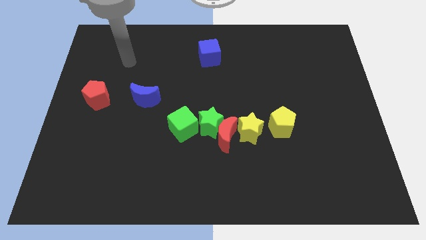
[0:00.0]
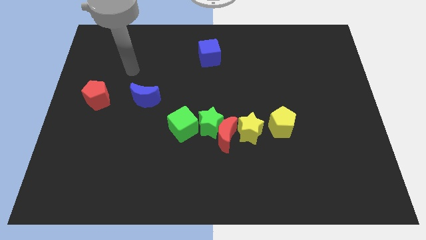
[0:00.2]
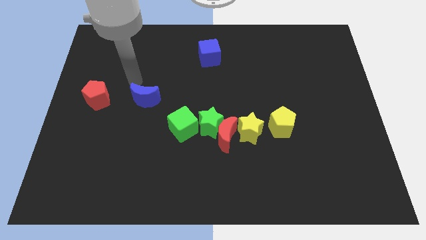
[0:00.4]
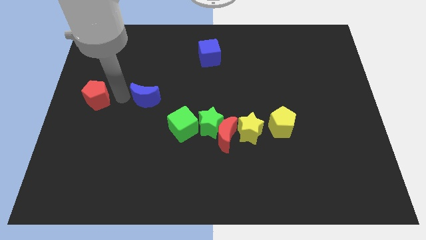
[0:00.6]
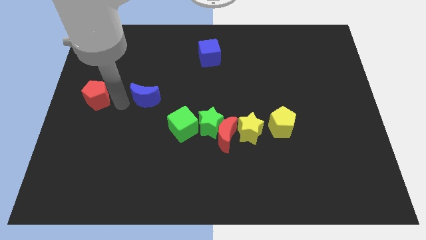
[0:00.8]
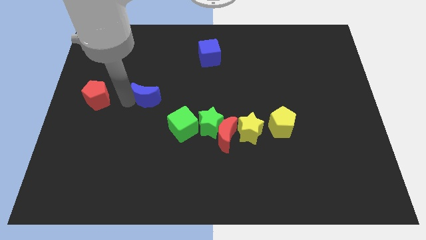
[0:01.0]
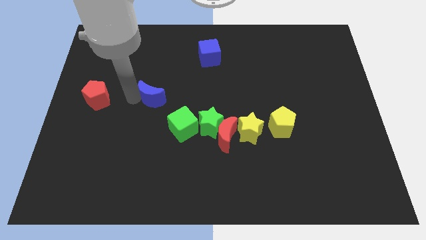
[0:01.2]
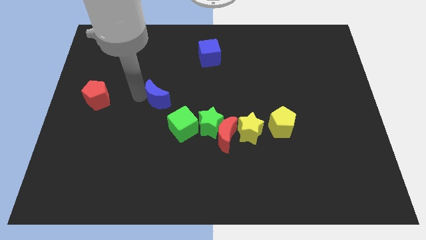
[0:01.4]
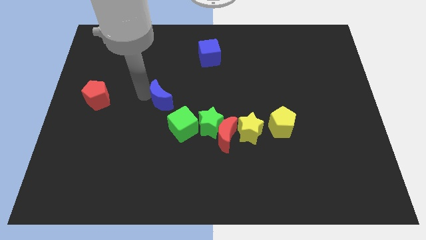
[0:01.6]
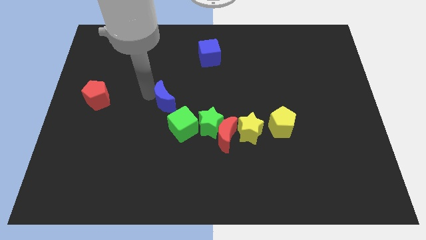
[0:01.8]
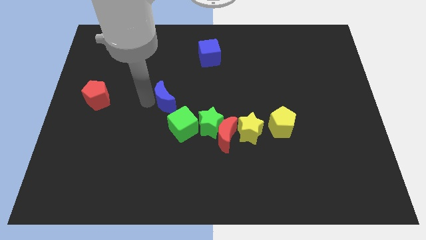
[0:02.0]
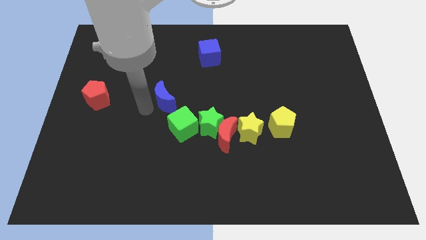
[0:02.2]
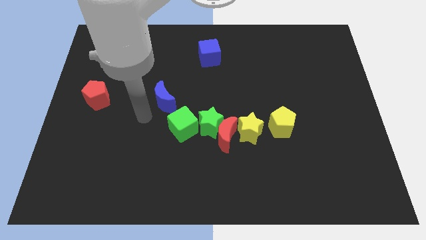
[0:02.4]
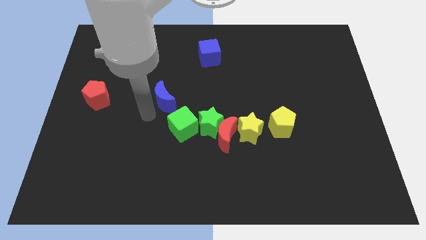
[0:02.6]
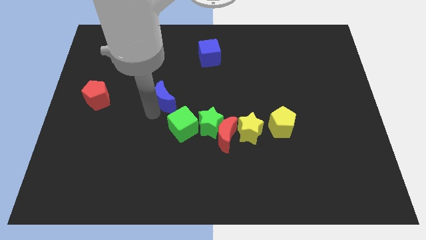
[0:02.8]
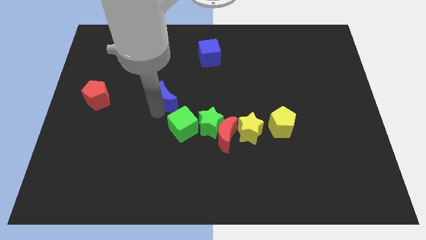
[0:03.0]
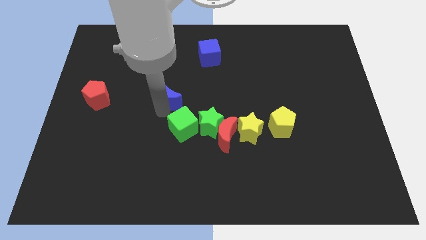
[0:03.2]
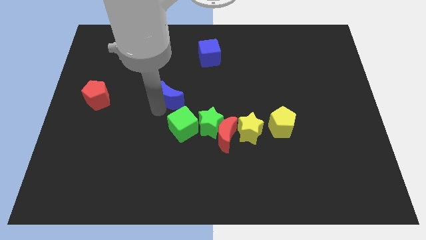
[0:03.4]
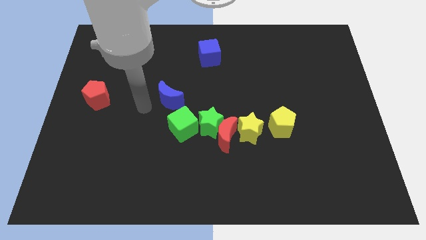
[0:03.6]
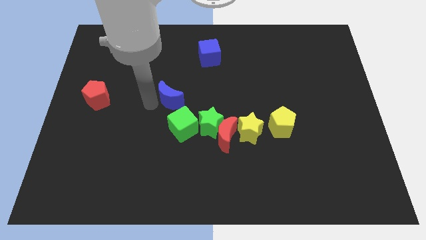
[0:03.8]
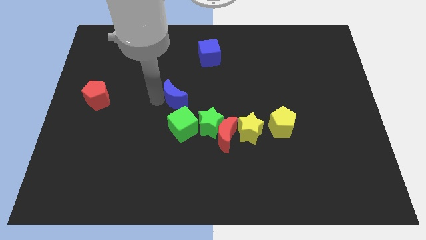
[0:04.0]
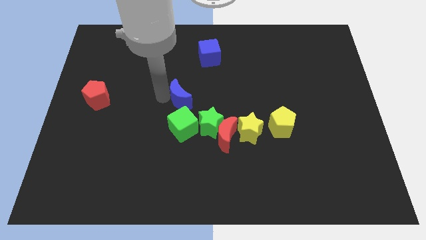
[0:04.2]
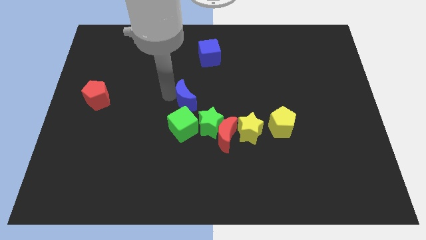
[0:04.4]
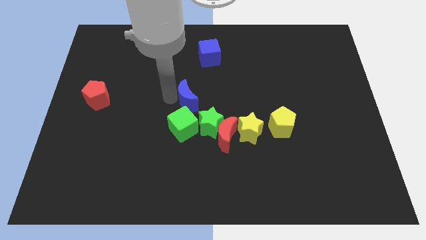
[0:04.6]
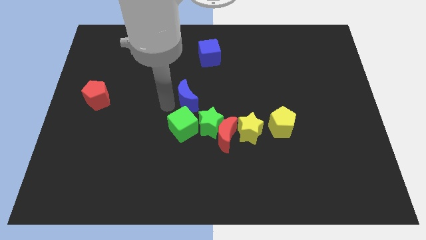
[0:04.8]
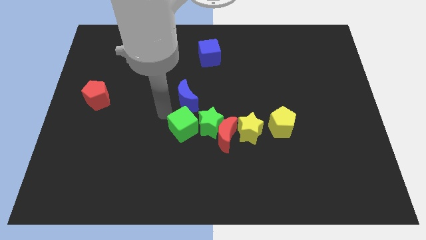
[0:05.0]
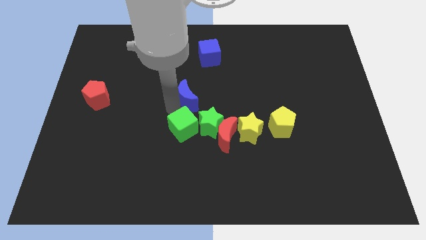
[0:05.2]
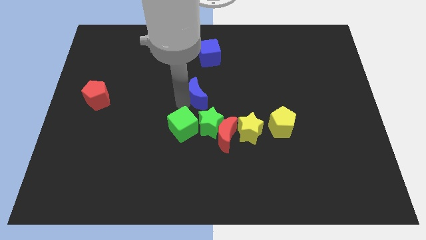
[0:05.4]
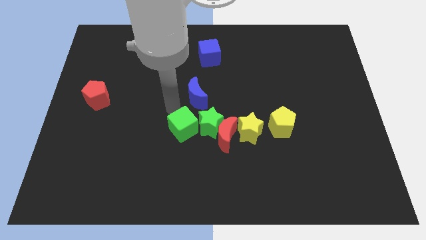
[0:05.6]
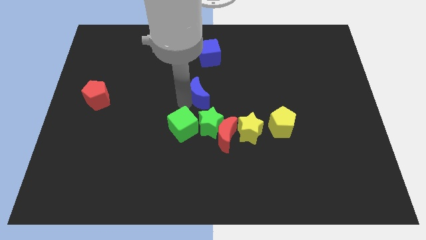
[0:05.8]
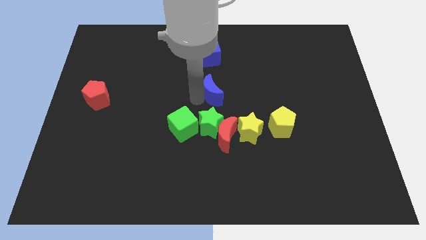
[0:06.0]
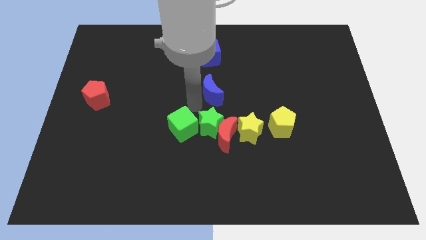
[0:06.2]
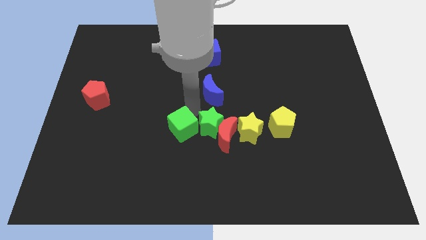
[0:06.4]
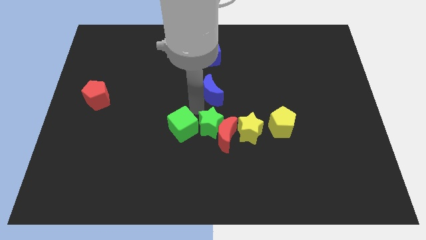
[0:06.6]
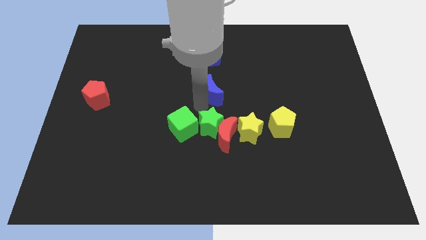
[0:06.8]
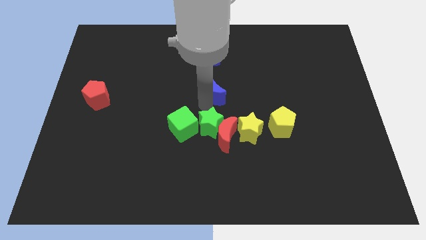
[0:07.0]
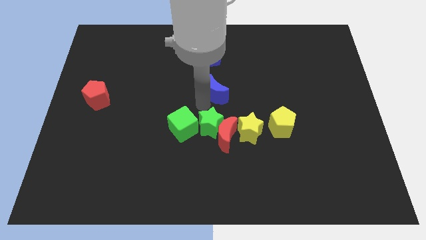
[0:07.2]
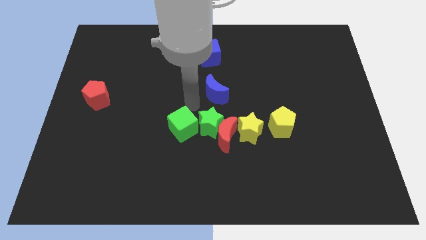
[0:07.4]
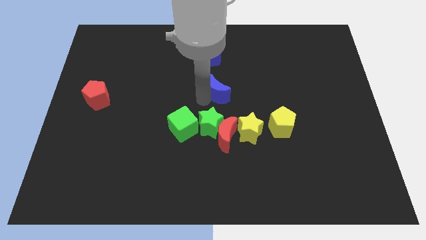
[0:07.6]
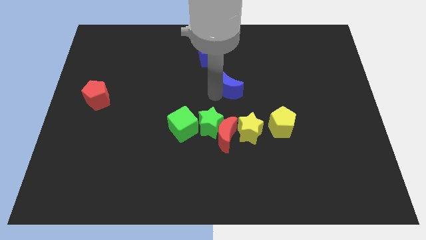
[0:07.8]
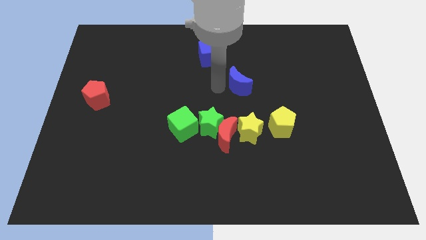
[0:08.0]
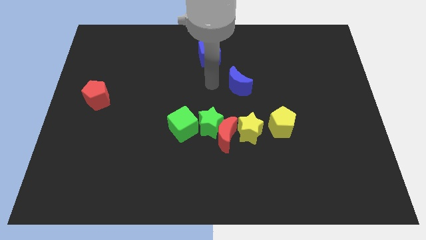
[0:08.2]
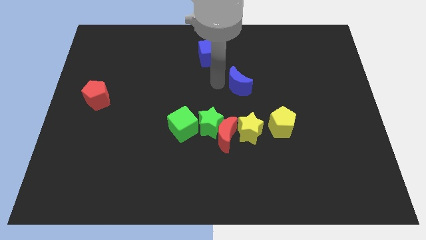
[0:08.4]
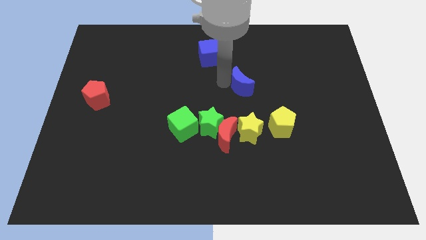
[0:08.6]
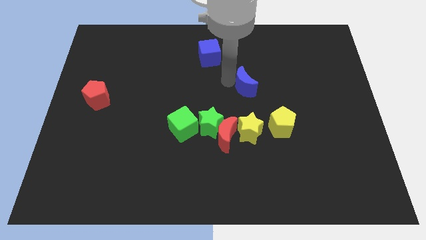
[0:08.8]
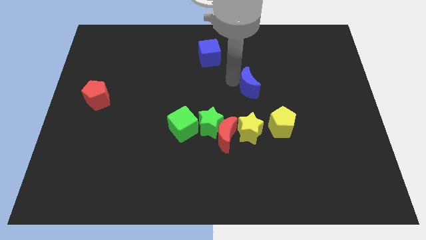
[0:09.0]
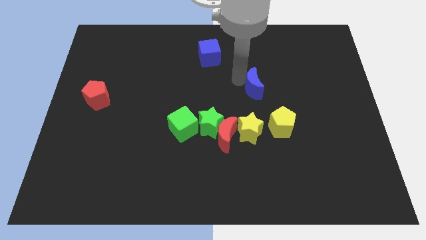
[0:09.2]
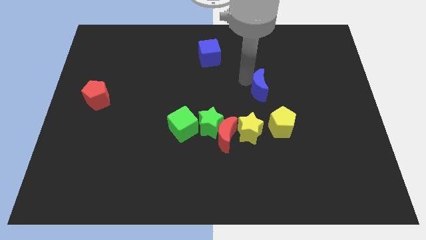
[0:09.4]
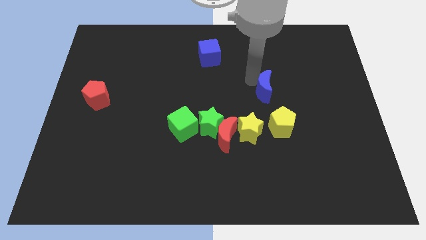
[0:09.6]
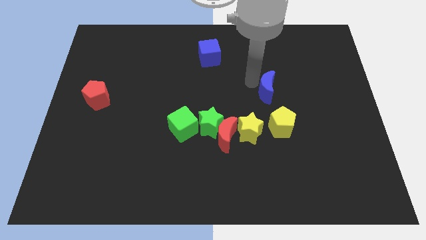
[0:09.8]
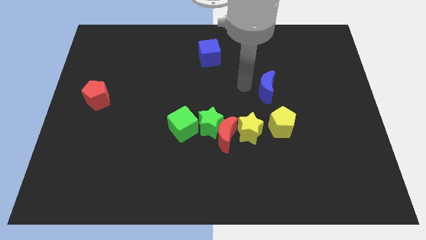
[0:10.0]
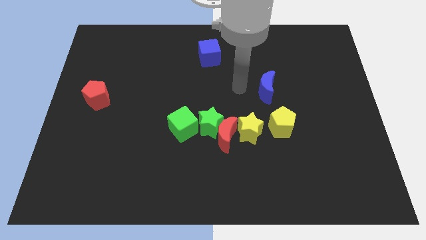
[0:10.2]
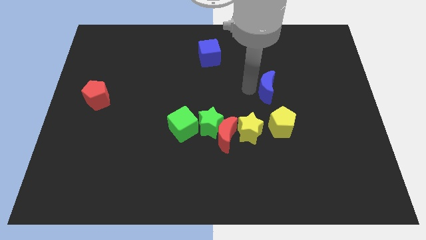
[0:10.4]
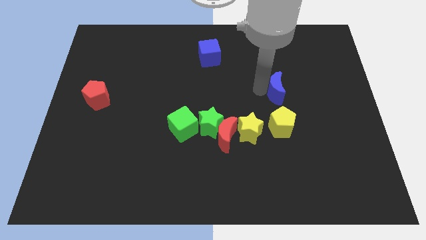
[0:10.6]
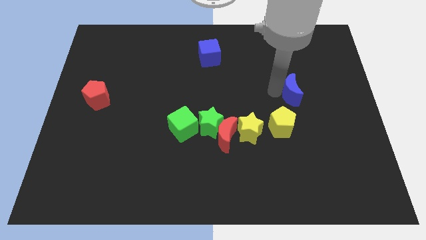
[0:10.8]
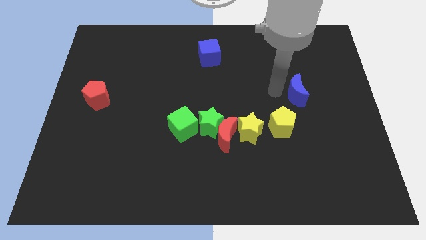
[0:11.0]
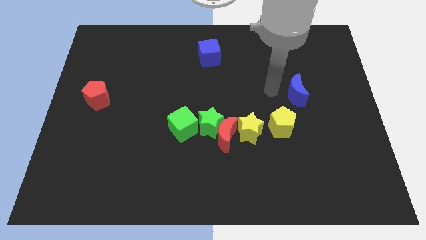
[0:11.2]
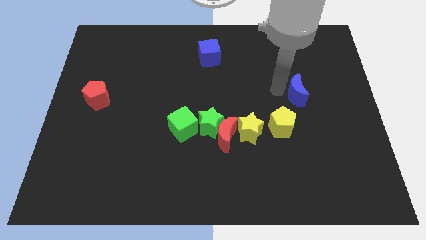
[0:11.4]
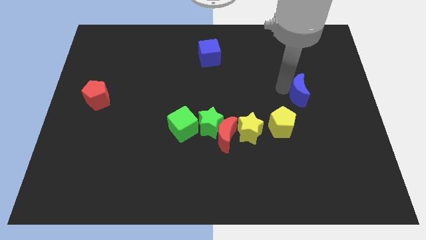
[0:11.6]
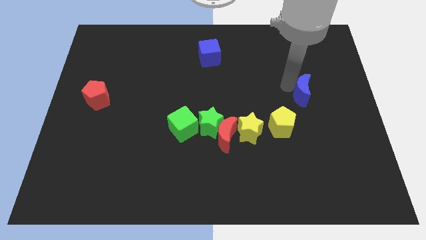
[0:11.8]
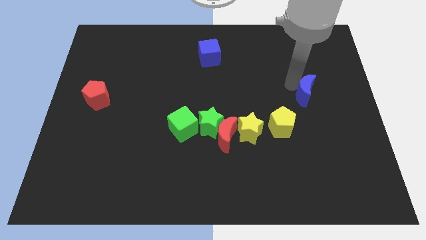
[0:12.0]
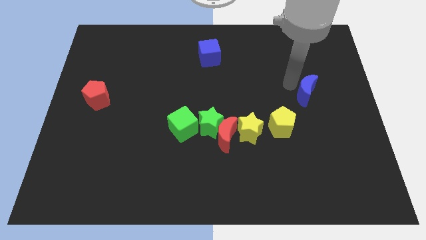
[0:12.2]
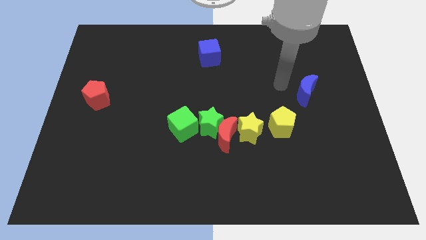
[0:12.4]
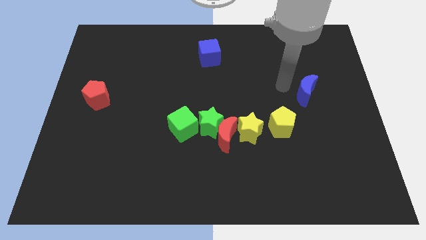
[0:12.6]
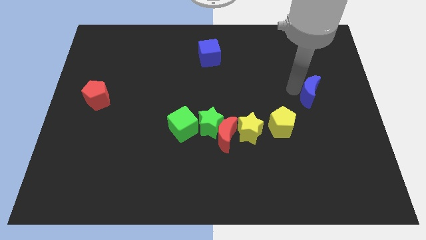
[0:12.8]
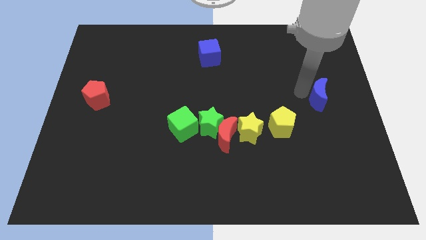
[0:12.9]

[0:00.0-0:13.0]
slide the blue moon to the right side of the board
